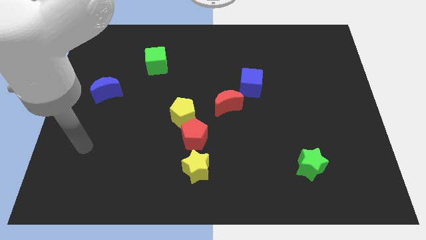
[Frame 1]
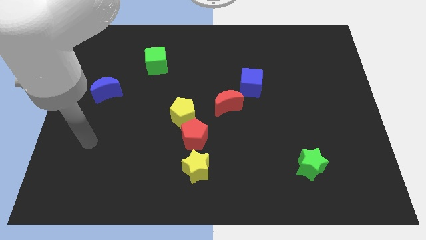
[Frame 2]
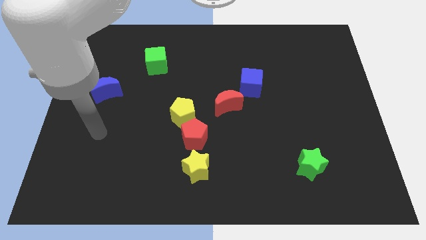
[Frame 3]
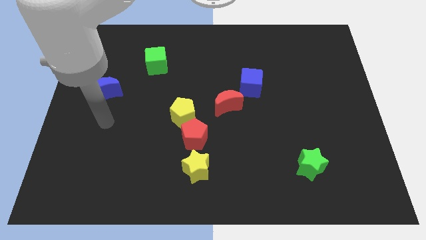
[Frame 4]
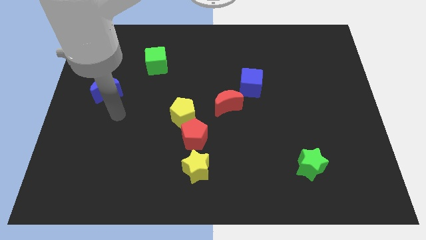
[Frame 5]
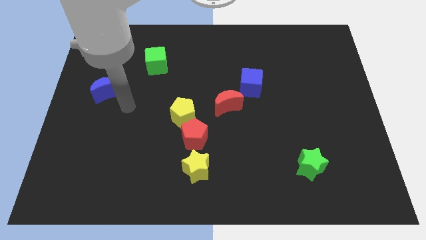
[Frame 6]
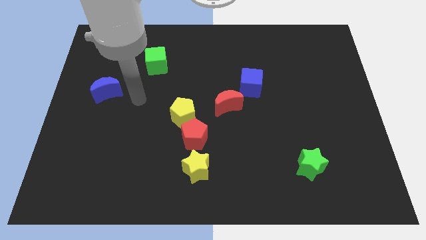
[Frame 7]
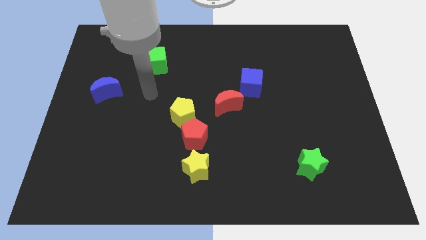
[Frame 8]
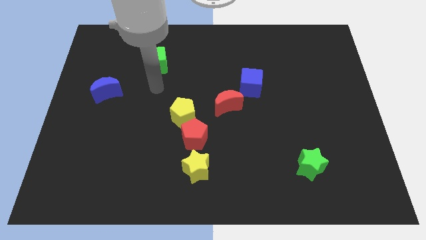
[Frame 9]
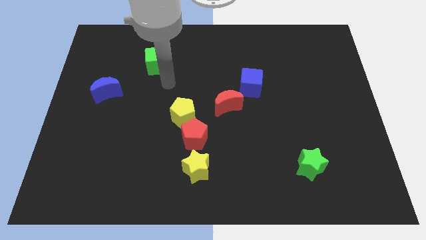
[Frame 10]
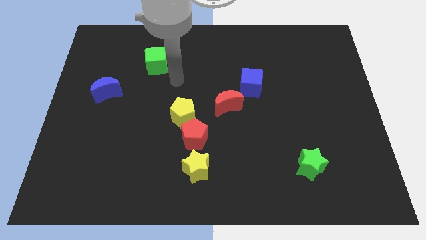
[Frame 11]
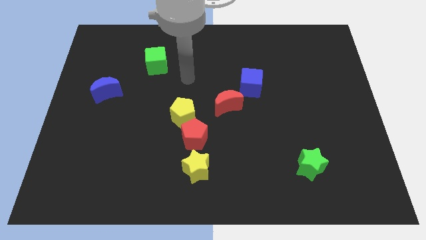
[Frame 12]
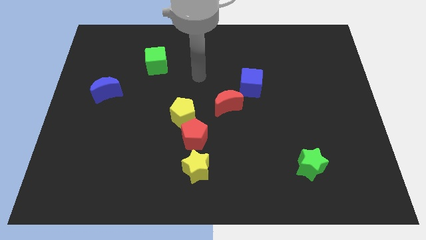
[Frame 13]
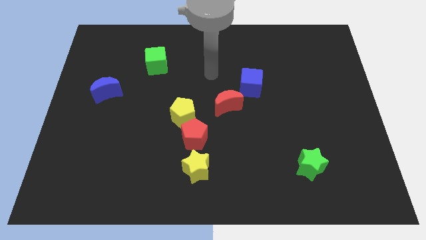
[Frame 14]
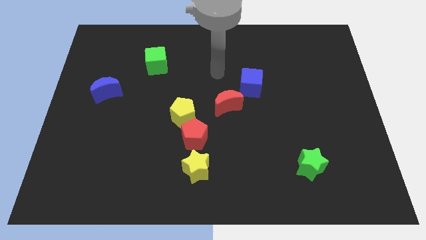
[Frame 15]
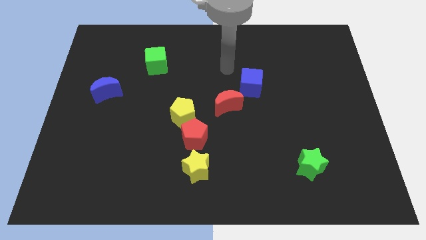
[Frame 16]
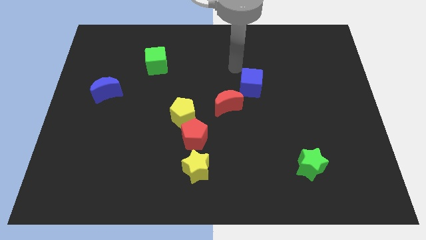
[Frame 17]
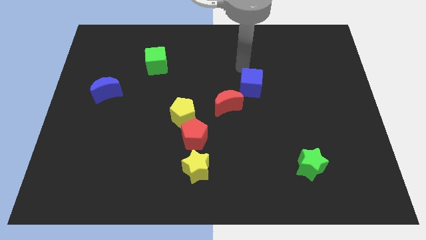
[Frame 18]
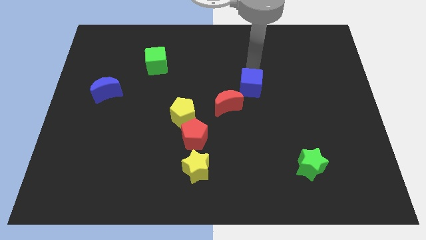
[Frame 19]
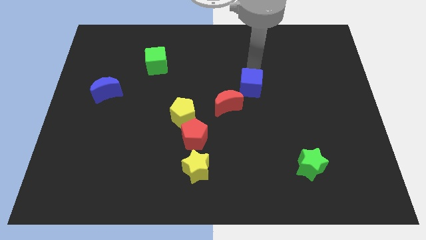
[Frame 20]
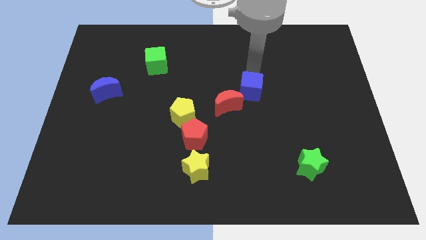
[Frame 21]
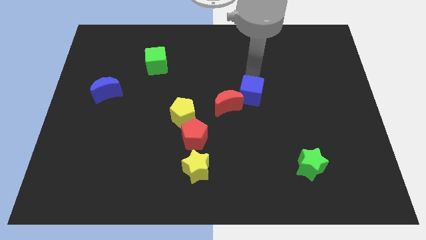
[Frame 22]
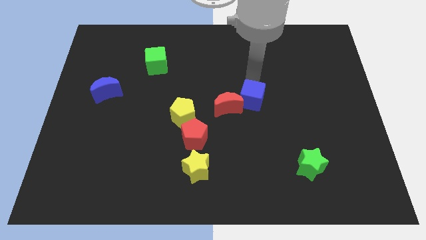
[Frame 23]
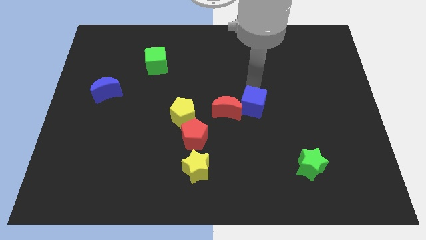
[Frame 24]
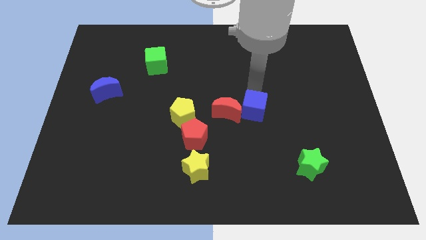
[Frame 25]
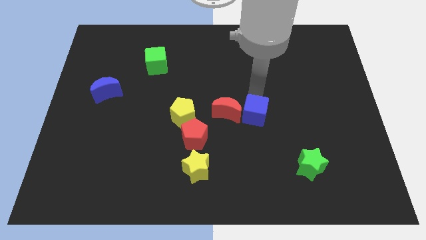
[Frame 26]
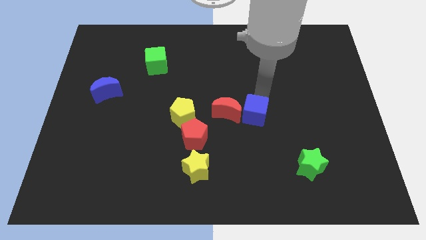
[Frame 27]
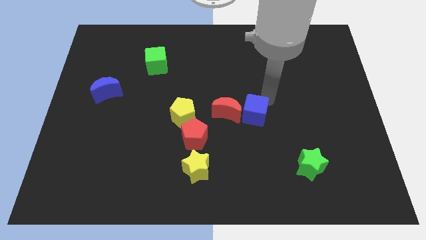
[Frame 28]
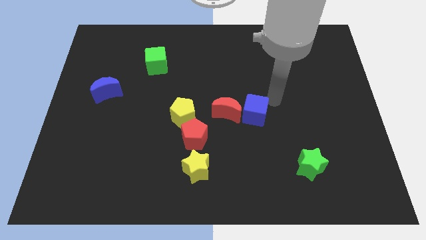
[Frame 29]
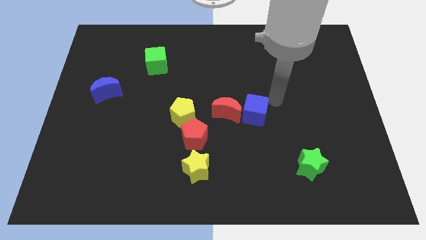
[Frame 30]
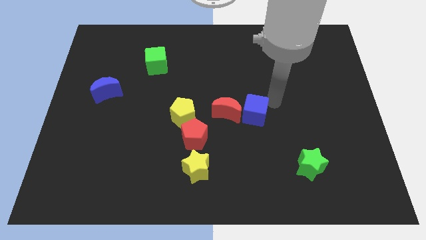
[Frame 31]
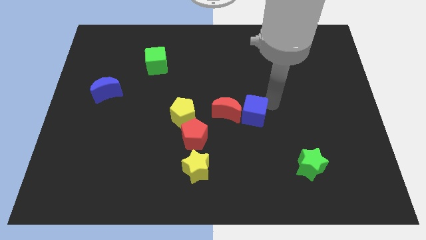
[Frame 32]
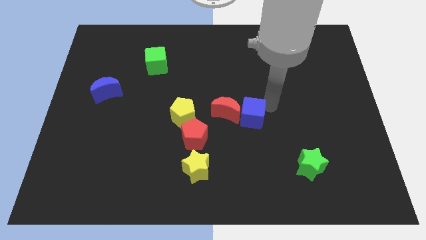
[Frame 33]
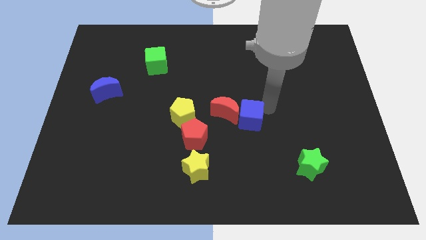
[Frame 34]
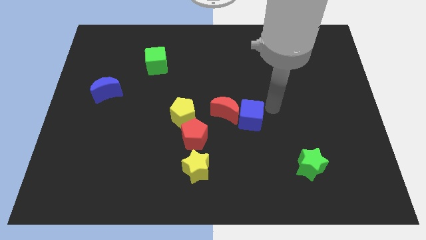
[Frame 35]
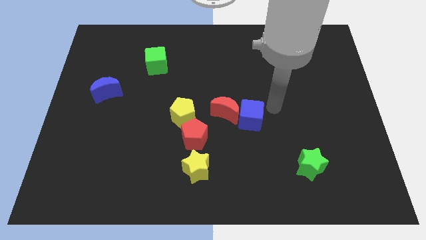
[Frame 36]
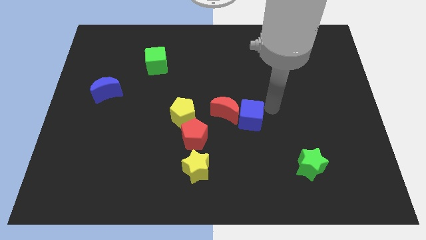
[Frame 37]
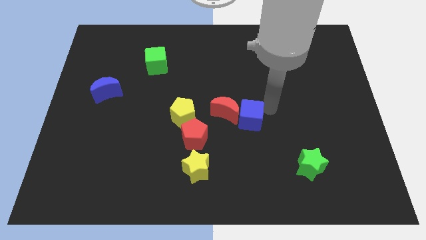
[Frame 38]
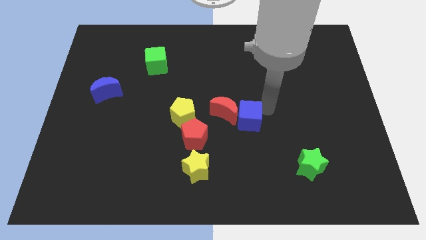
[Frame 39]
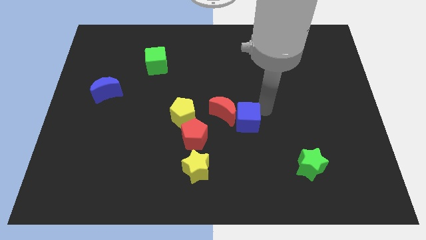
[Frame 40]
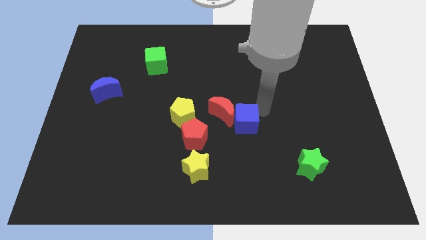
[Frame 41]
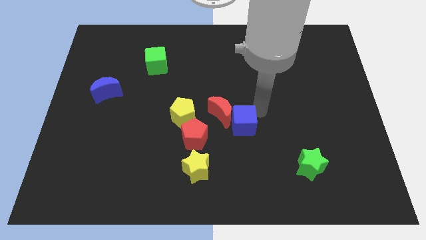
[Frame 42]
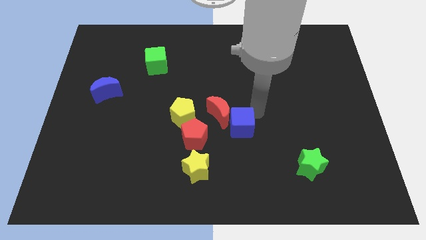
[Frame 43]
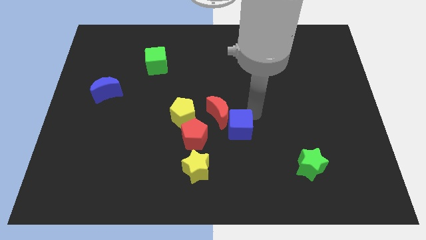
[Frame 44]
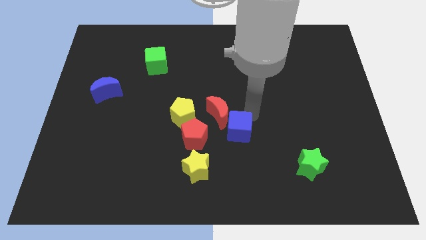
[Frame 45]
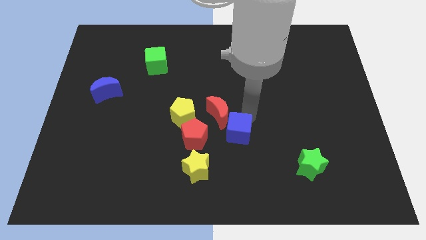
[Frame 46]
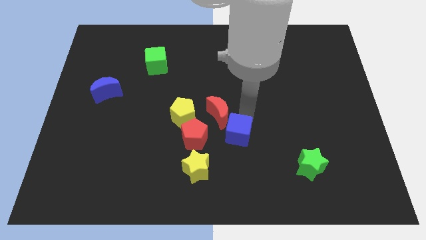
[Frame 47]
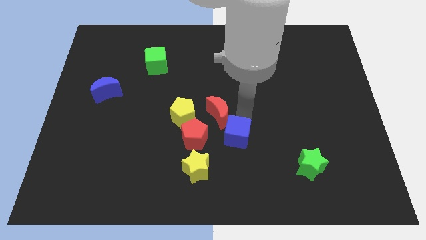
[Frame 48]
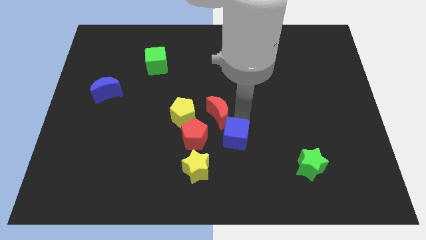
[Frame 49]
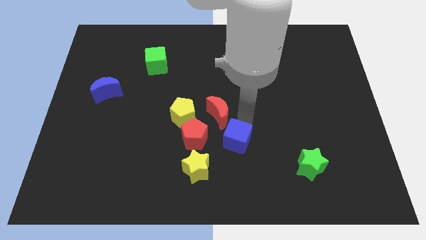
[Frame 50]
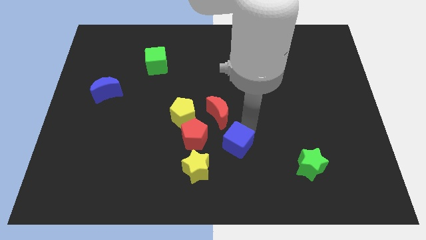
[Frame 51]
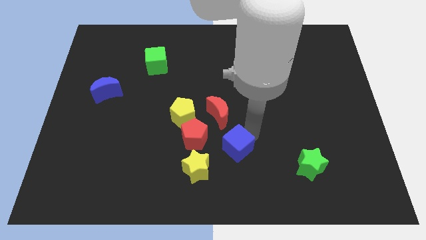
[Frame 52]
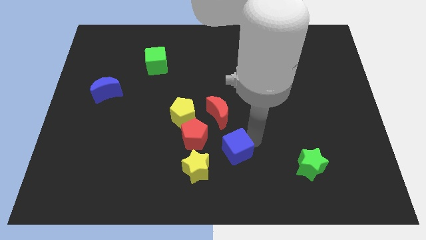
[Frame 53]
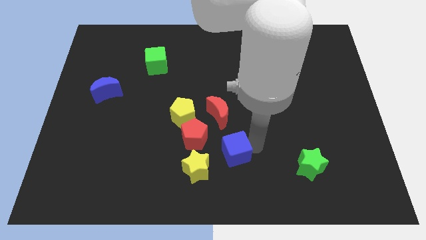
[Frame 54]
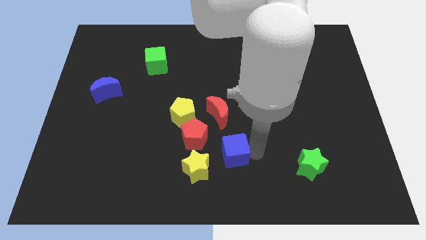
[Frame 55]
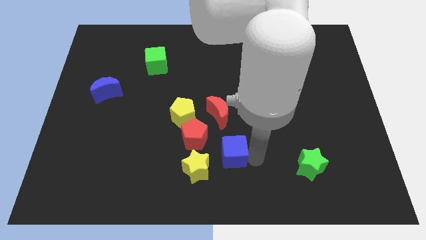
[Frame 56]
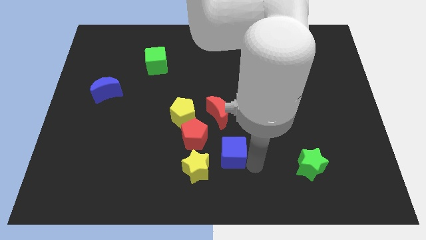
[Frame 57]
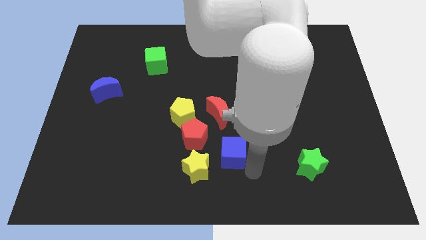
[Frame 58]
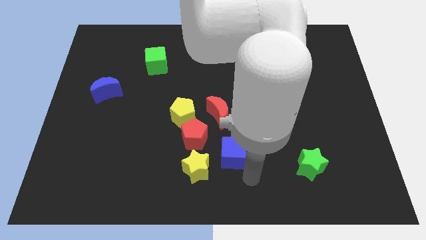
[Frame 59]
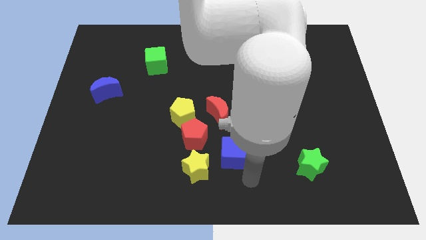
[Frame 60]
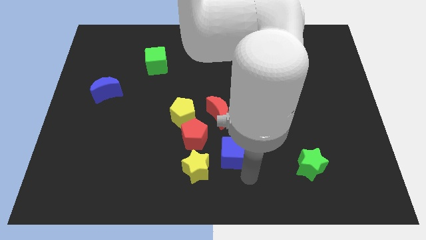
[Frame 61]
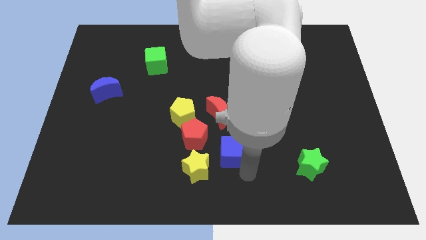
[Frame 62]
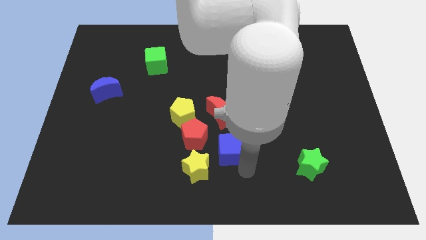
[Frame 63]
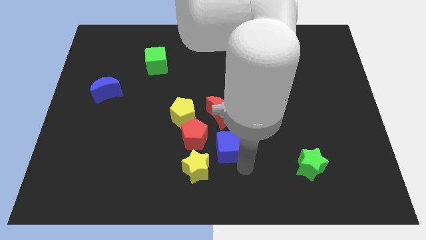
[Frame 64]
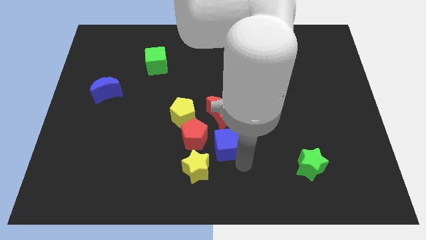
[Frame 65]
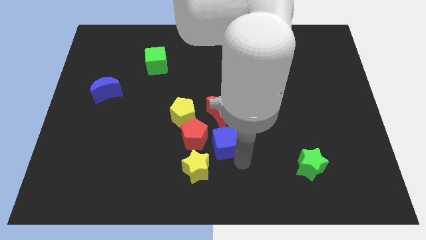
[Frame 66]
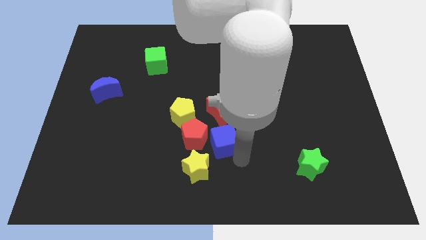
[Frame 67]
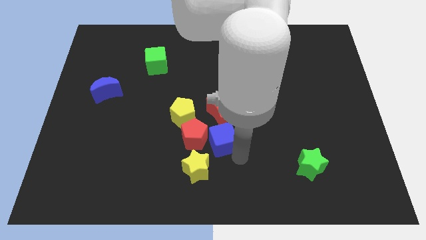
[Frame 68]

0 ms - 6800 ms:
put the blue cube to the red pentagon
